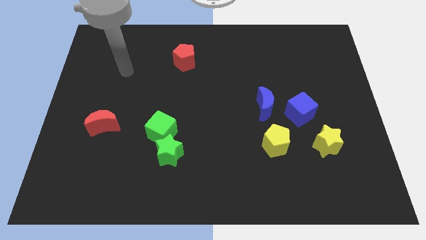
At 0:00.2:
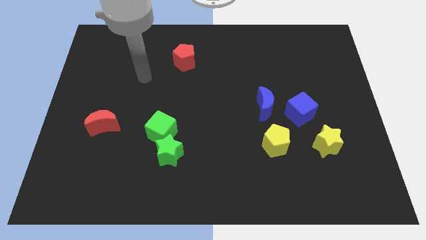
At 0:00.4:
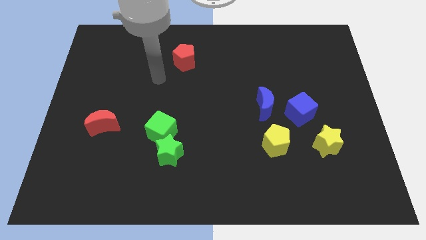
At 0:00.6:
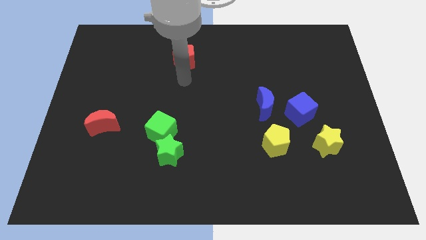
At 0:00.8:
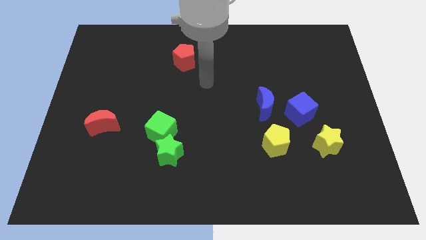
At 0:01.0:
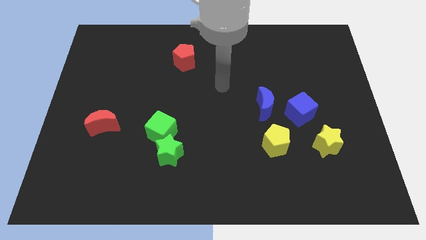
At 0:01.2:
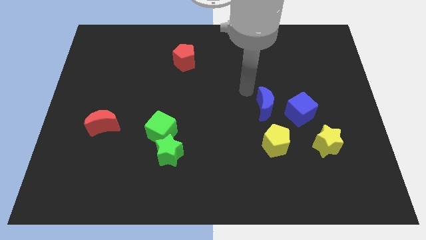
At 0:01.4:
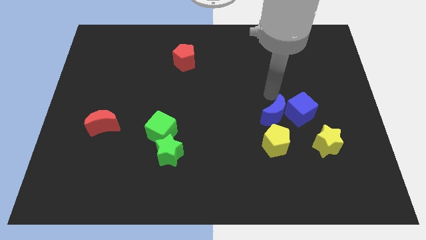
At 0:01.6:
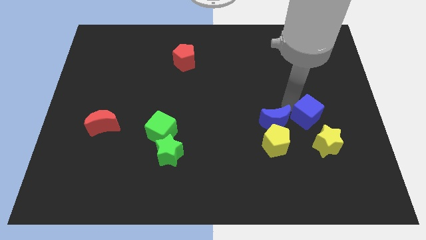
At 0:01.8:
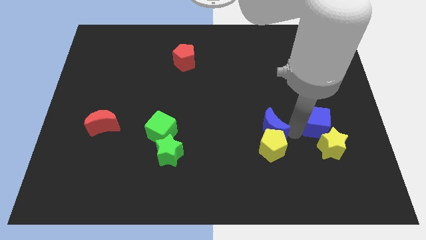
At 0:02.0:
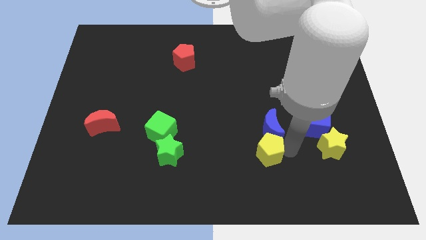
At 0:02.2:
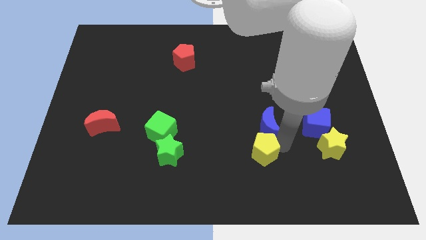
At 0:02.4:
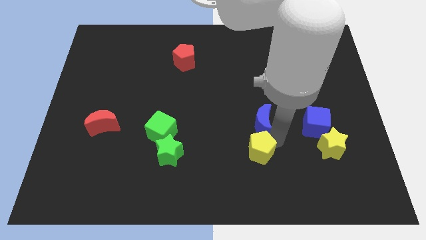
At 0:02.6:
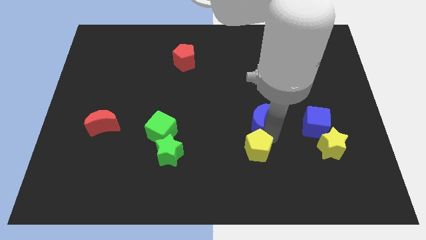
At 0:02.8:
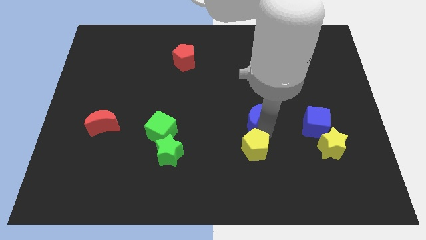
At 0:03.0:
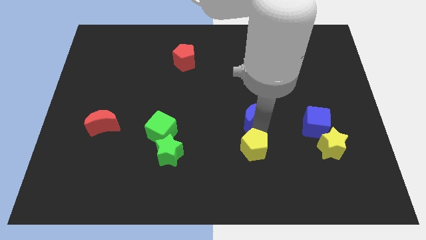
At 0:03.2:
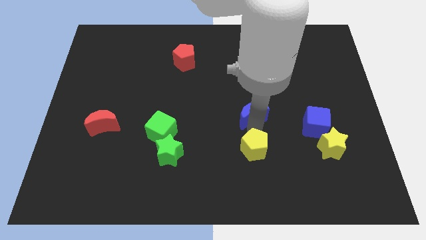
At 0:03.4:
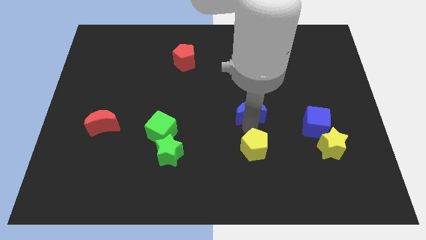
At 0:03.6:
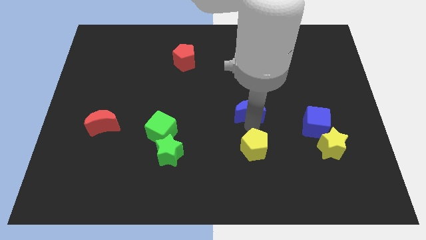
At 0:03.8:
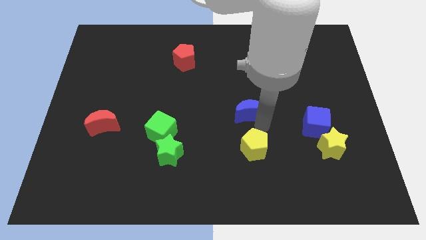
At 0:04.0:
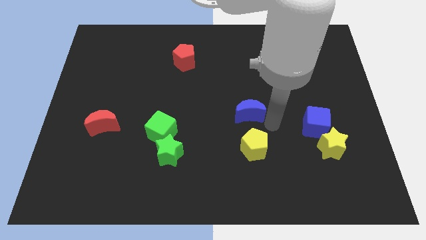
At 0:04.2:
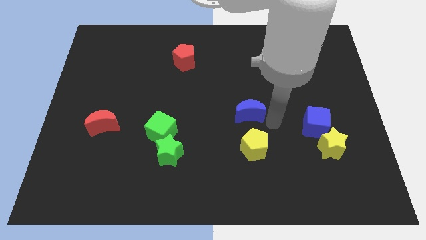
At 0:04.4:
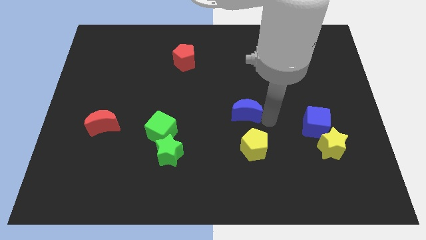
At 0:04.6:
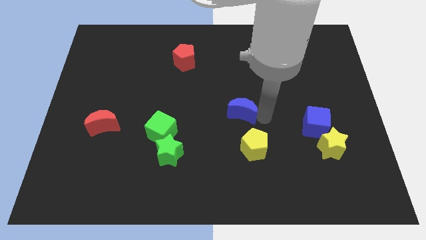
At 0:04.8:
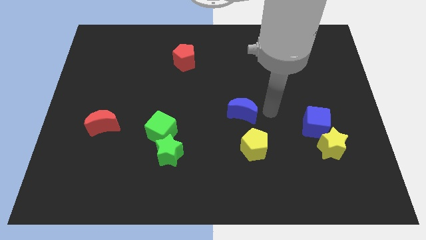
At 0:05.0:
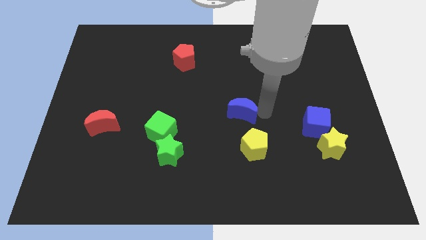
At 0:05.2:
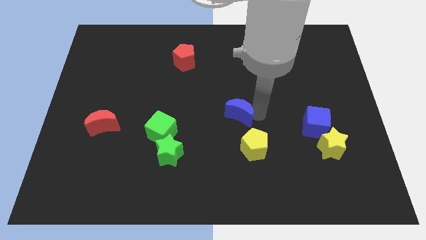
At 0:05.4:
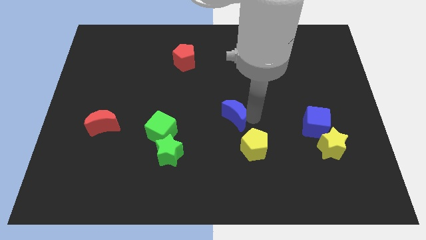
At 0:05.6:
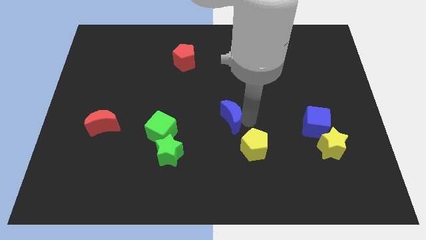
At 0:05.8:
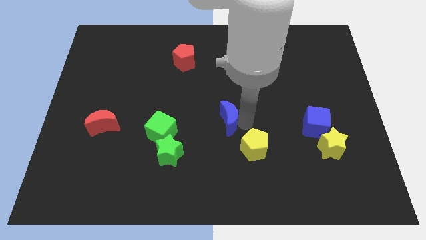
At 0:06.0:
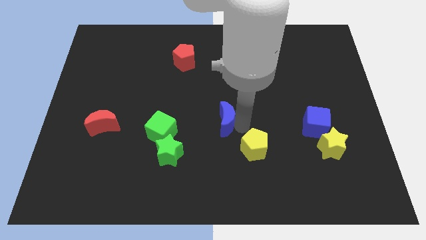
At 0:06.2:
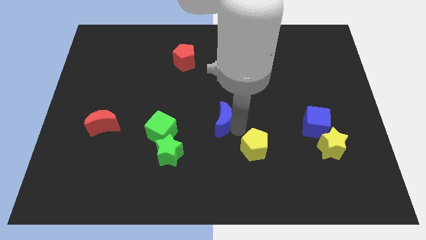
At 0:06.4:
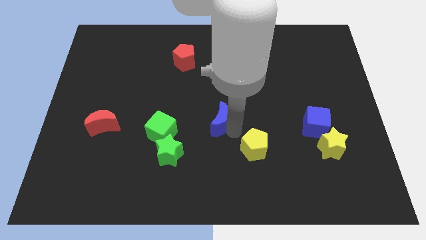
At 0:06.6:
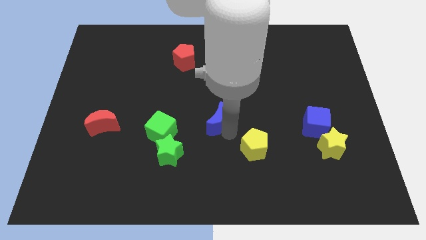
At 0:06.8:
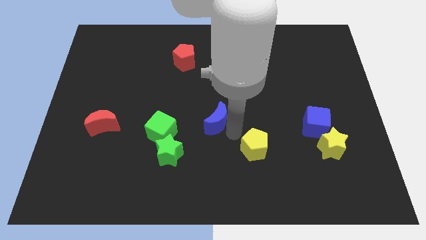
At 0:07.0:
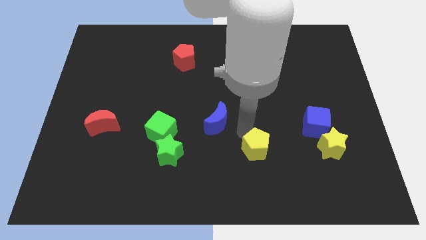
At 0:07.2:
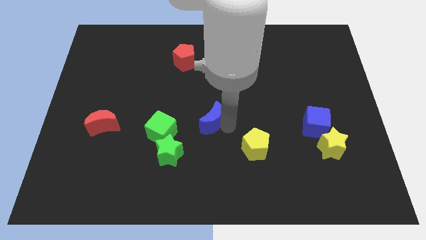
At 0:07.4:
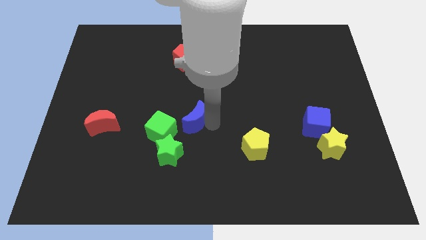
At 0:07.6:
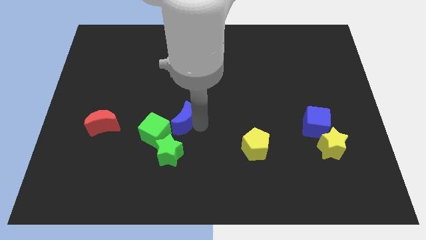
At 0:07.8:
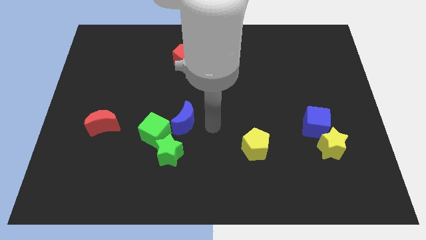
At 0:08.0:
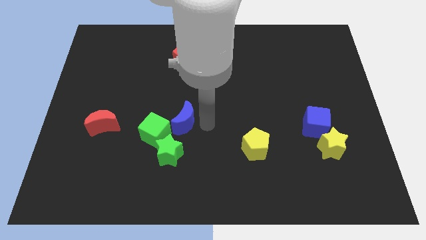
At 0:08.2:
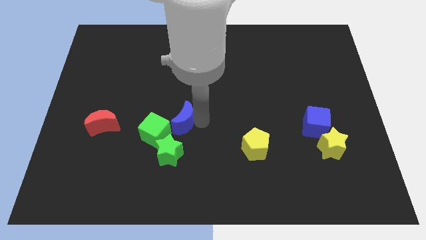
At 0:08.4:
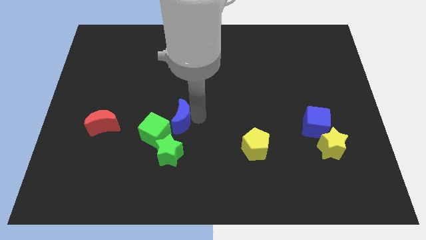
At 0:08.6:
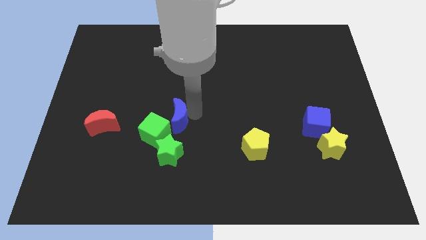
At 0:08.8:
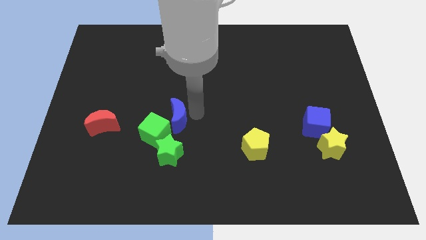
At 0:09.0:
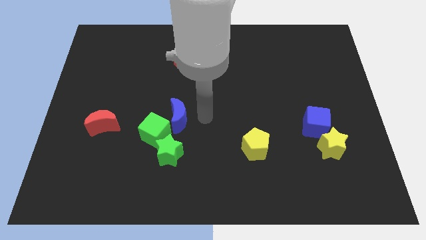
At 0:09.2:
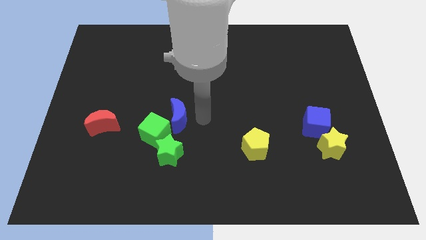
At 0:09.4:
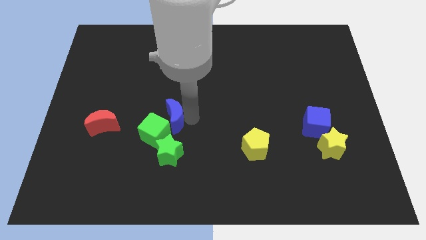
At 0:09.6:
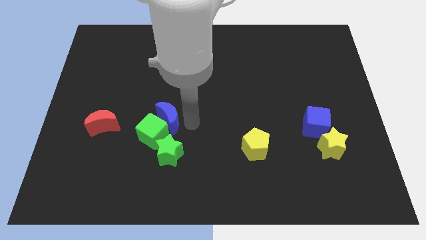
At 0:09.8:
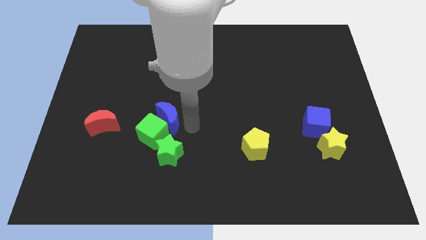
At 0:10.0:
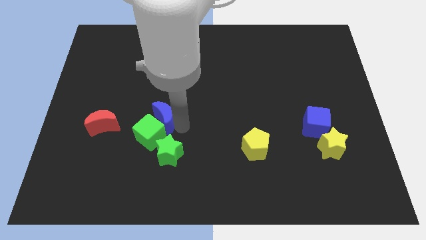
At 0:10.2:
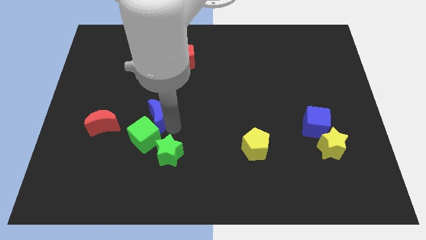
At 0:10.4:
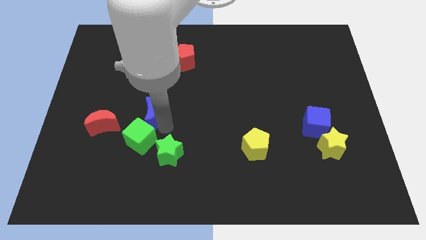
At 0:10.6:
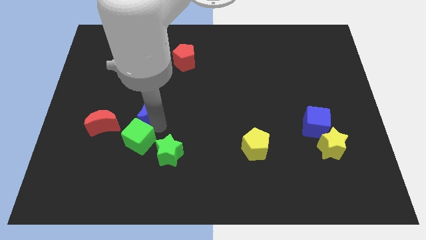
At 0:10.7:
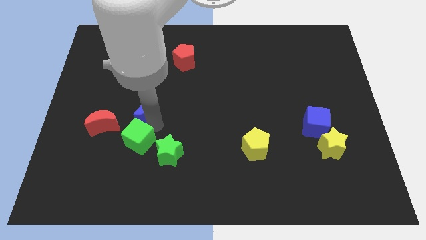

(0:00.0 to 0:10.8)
push the blue moon to the top right of the red moon

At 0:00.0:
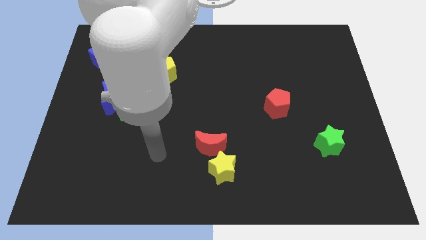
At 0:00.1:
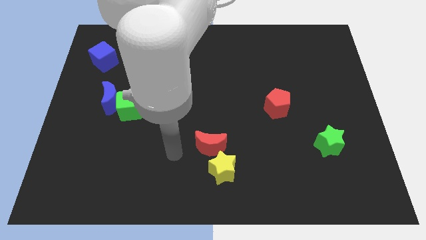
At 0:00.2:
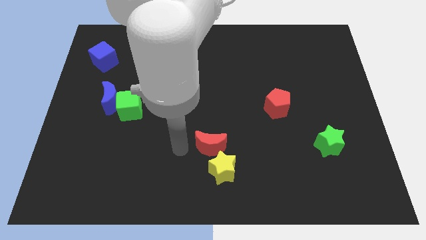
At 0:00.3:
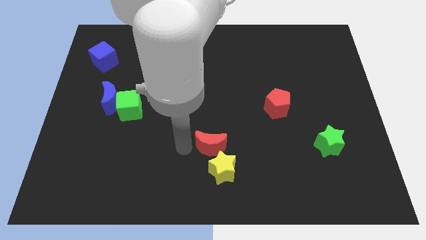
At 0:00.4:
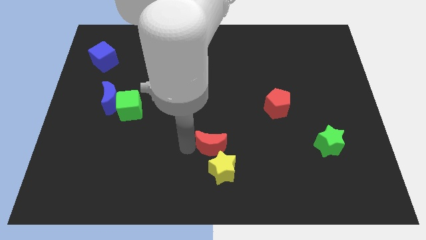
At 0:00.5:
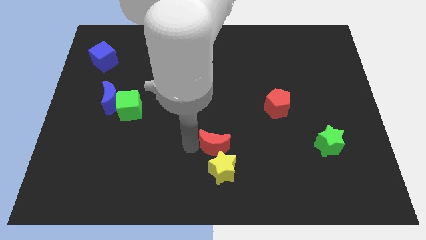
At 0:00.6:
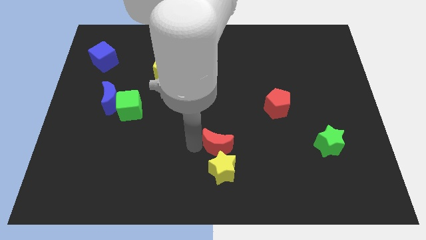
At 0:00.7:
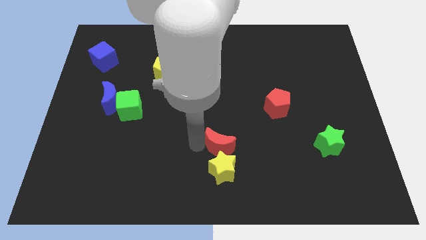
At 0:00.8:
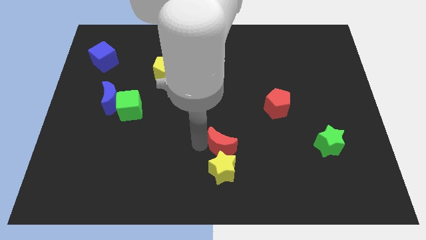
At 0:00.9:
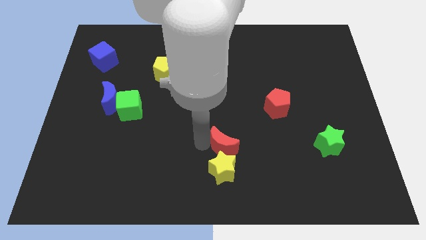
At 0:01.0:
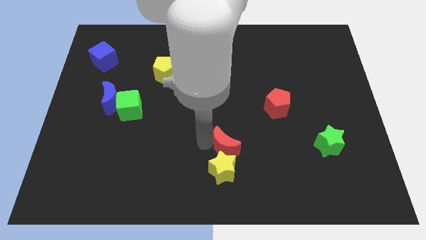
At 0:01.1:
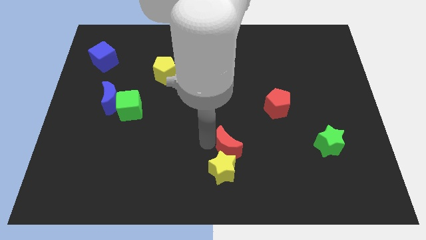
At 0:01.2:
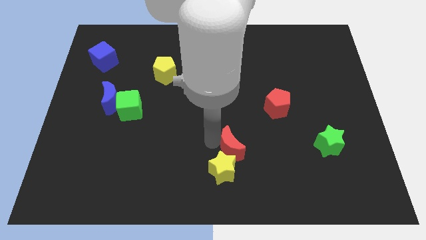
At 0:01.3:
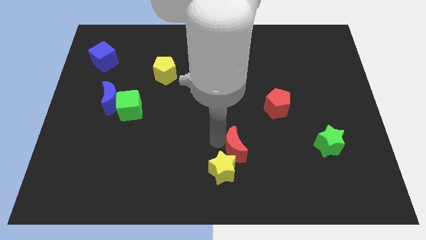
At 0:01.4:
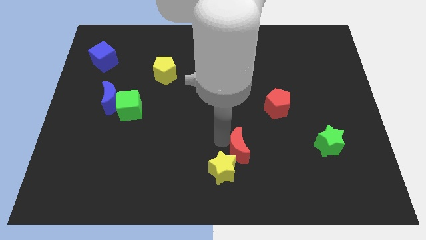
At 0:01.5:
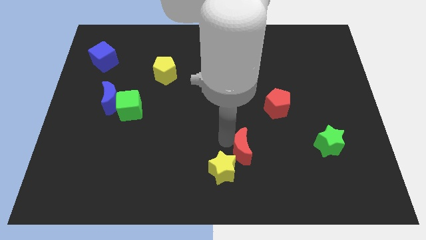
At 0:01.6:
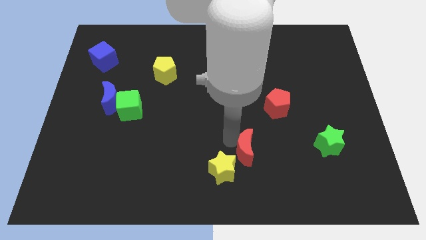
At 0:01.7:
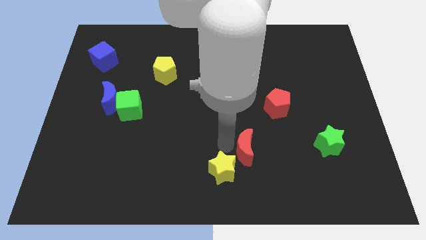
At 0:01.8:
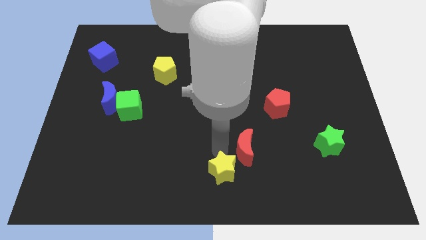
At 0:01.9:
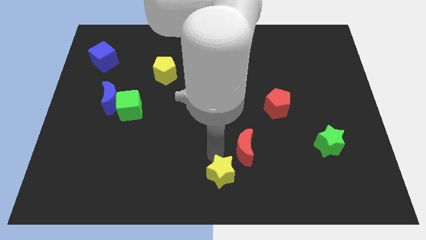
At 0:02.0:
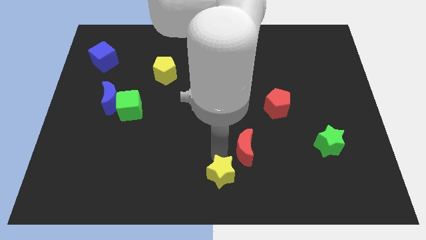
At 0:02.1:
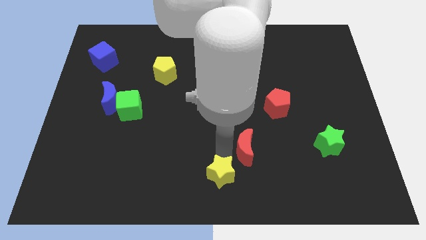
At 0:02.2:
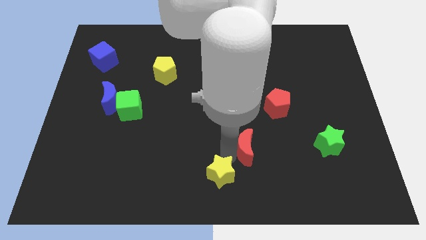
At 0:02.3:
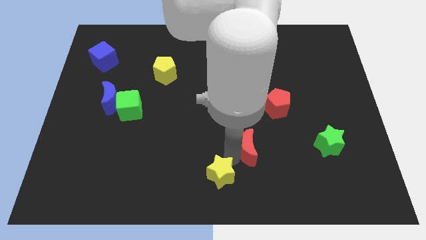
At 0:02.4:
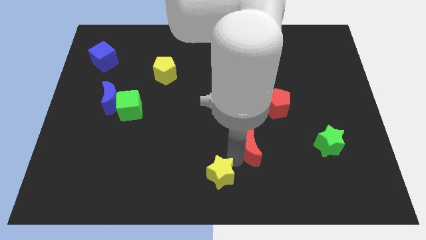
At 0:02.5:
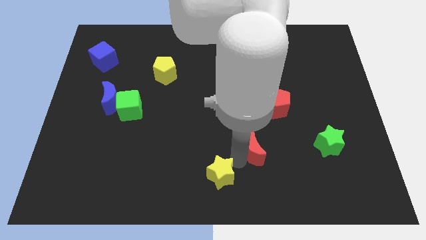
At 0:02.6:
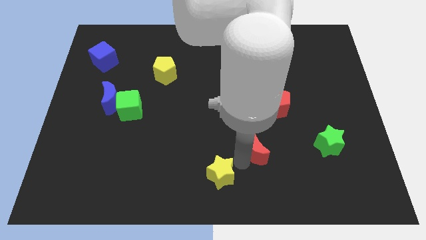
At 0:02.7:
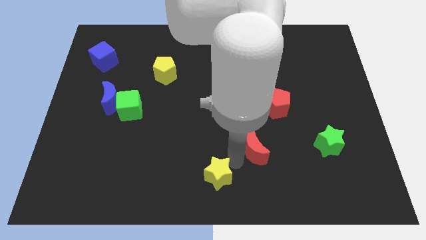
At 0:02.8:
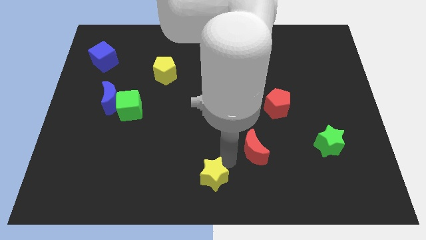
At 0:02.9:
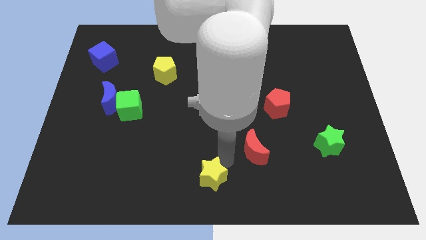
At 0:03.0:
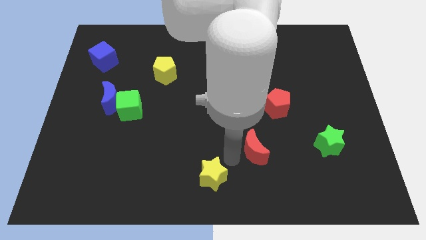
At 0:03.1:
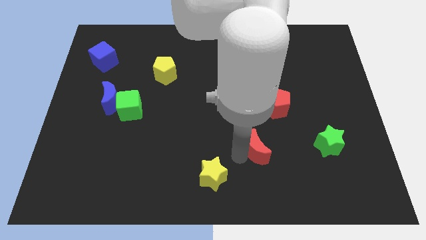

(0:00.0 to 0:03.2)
put the red moon left of the green star
